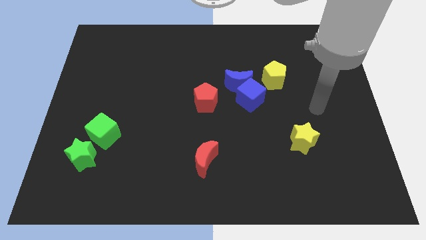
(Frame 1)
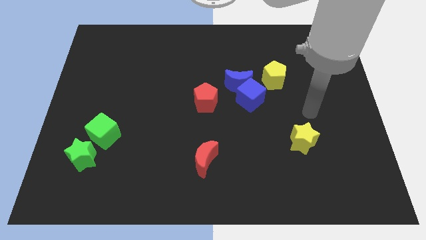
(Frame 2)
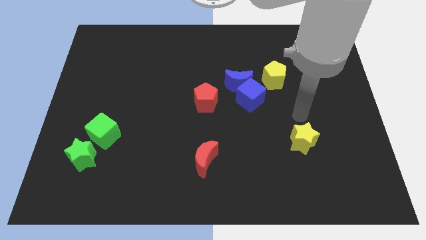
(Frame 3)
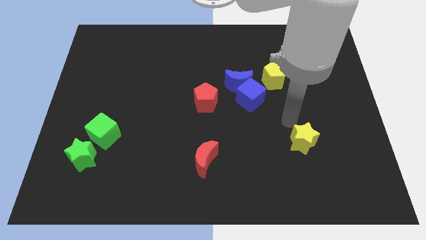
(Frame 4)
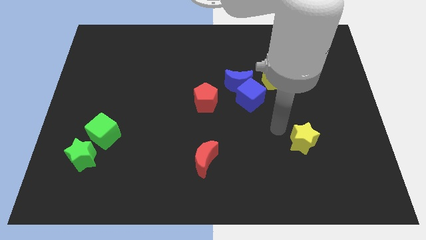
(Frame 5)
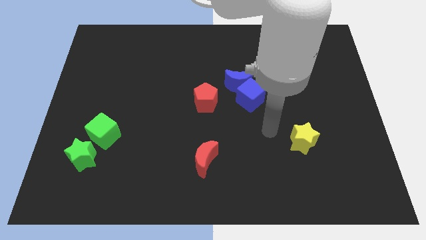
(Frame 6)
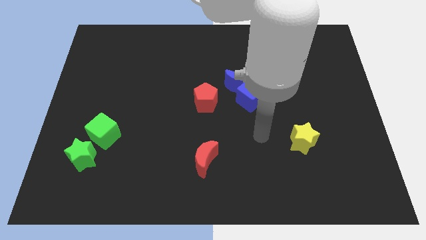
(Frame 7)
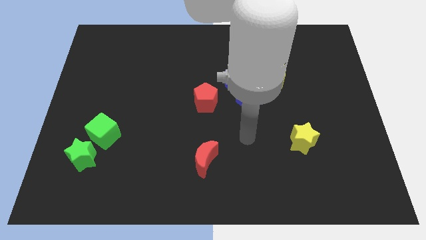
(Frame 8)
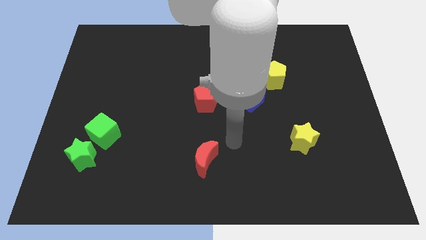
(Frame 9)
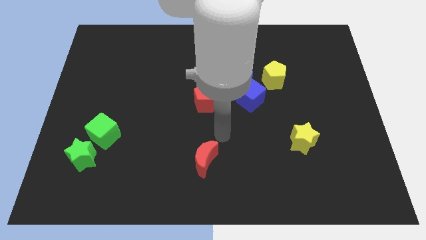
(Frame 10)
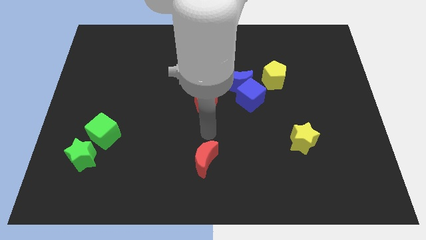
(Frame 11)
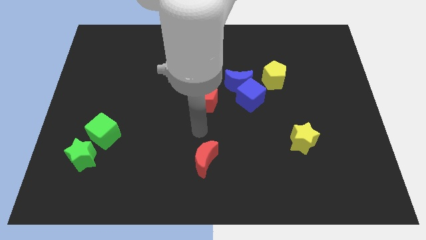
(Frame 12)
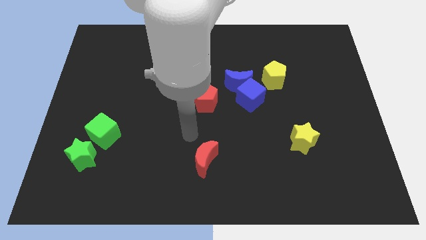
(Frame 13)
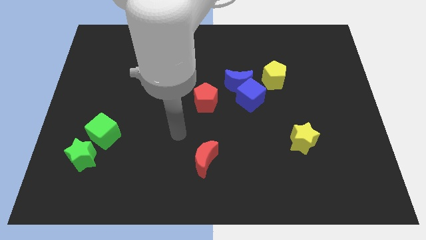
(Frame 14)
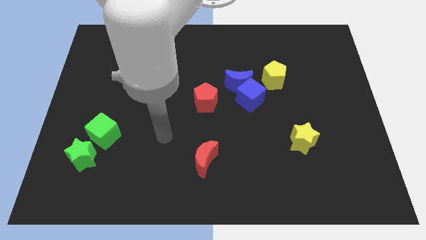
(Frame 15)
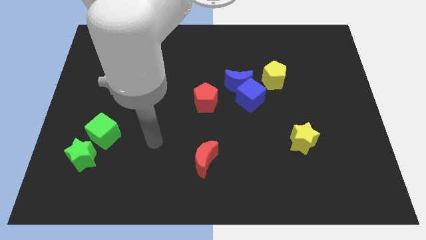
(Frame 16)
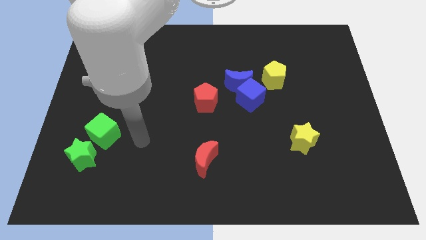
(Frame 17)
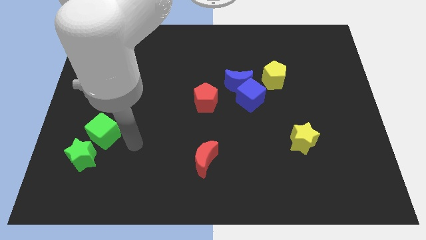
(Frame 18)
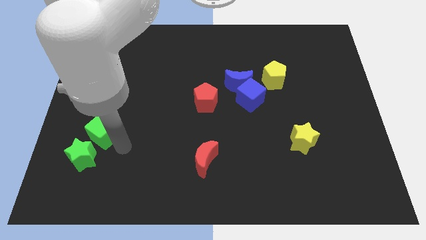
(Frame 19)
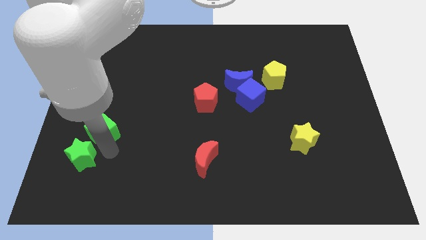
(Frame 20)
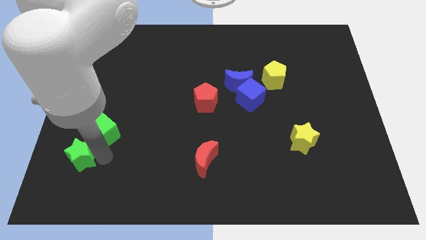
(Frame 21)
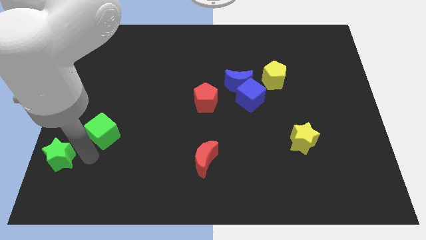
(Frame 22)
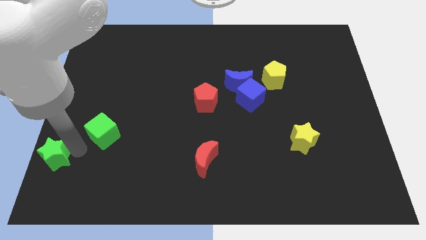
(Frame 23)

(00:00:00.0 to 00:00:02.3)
pull the green cube apart from the green star

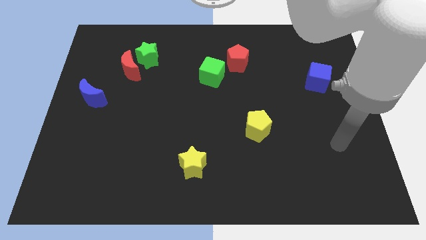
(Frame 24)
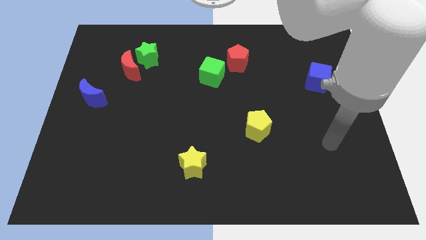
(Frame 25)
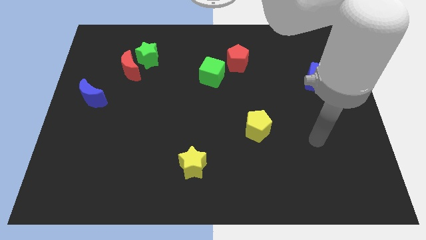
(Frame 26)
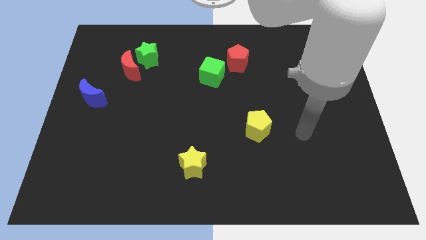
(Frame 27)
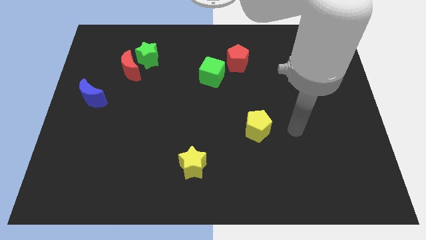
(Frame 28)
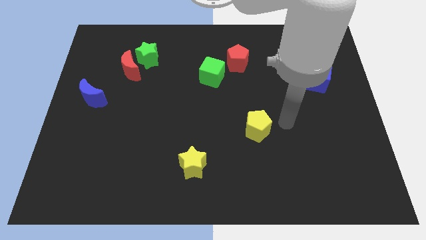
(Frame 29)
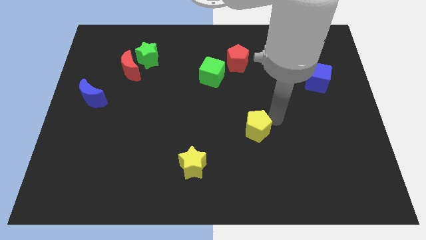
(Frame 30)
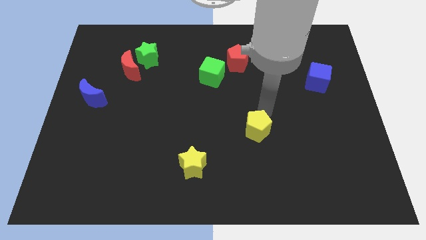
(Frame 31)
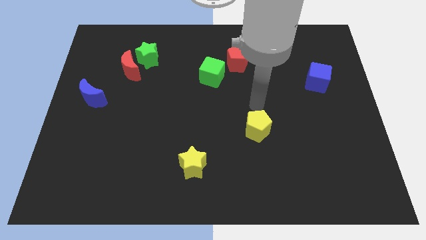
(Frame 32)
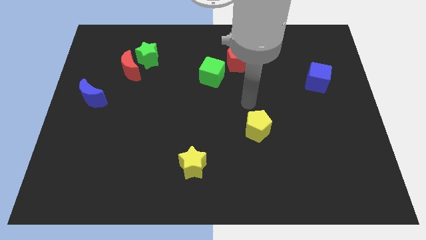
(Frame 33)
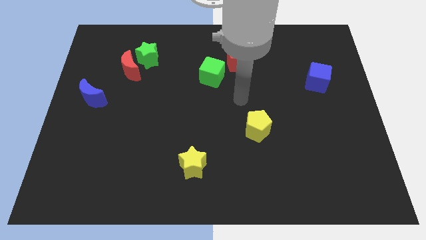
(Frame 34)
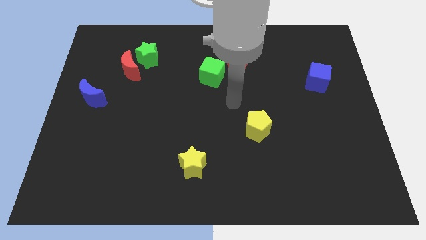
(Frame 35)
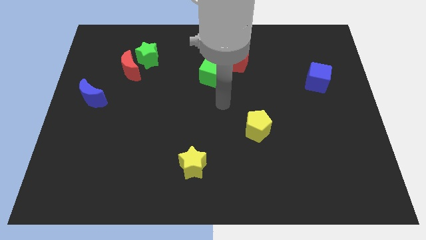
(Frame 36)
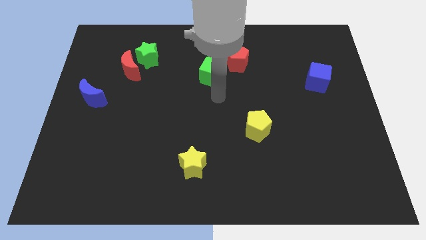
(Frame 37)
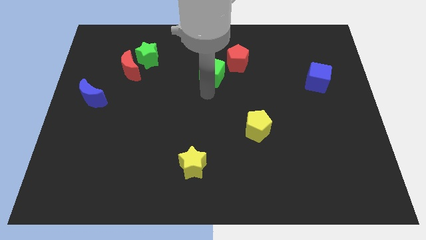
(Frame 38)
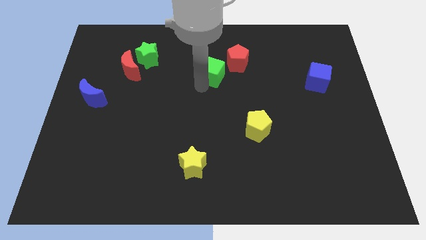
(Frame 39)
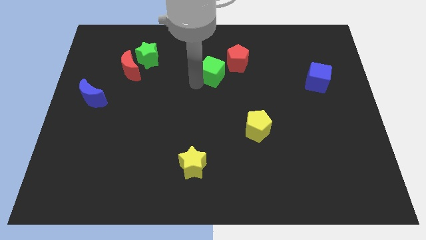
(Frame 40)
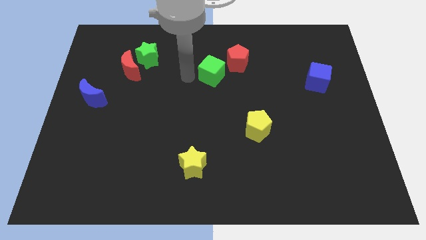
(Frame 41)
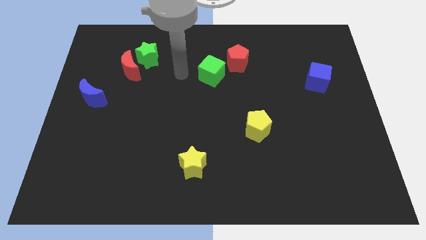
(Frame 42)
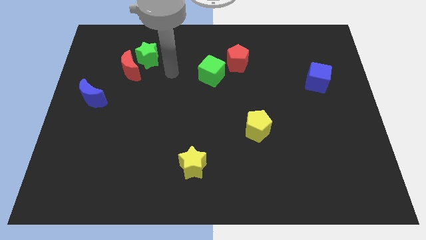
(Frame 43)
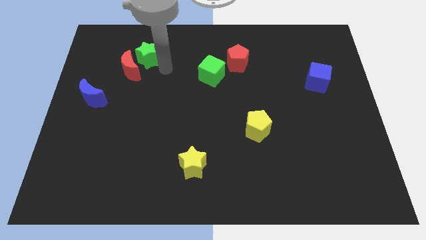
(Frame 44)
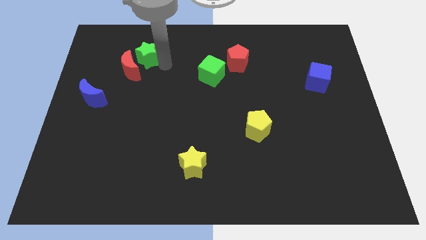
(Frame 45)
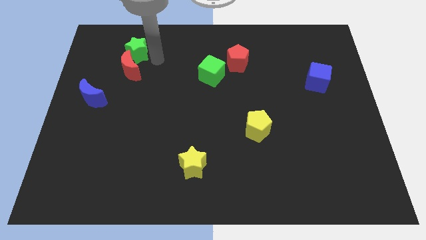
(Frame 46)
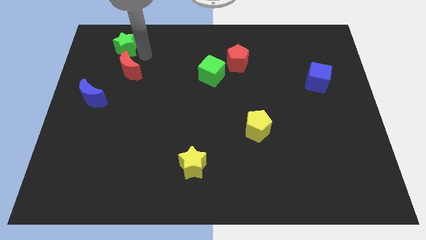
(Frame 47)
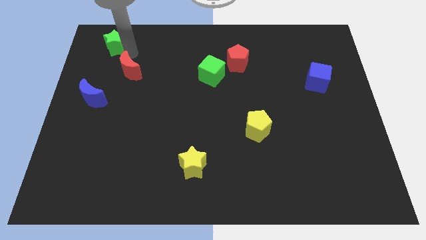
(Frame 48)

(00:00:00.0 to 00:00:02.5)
move the red moon away from the green star

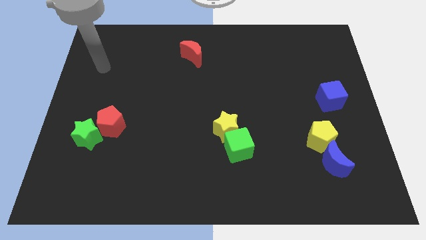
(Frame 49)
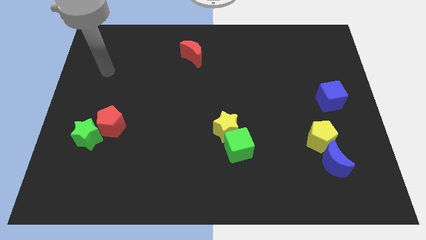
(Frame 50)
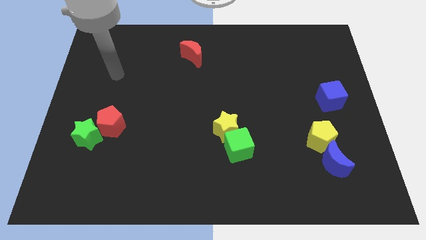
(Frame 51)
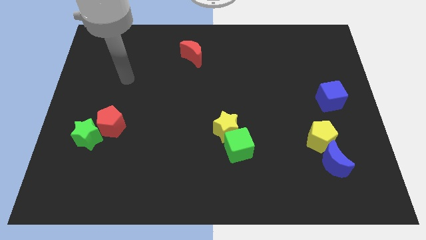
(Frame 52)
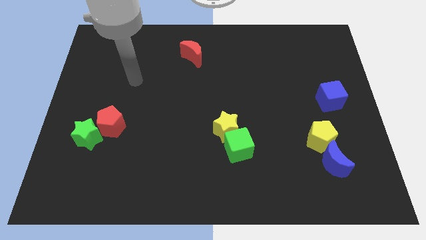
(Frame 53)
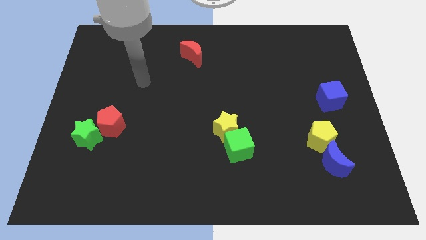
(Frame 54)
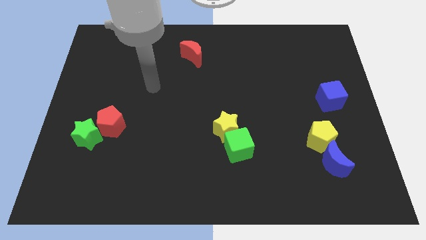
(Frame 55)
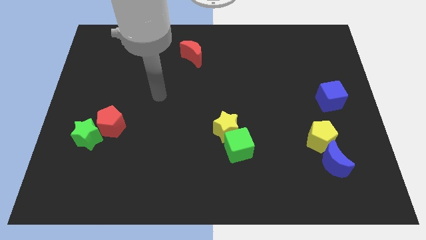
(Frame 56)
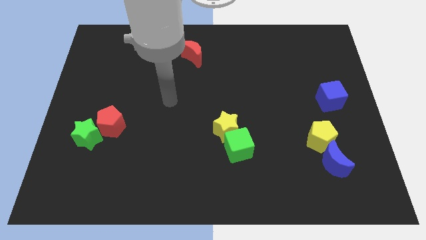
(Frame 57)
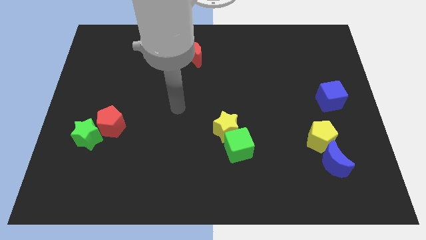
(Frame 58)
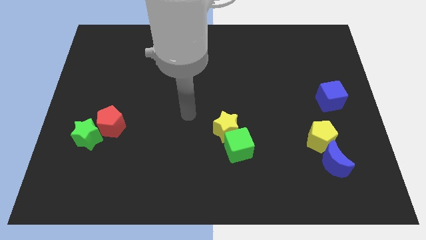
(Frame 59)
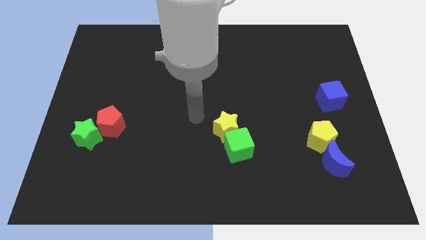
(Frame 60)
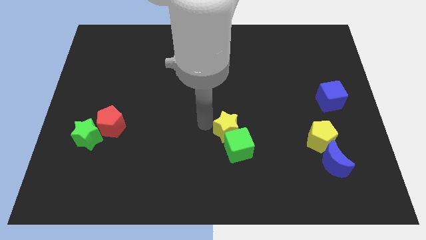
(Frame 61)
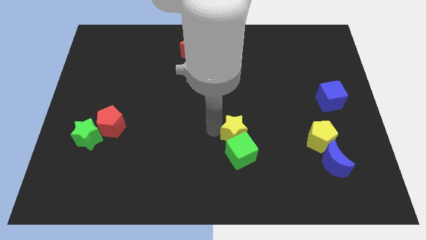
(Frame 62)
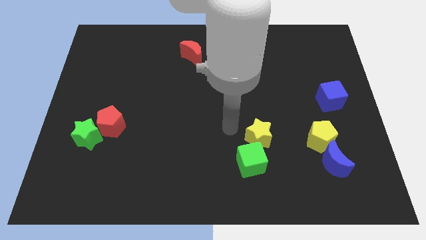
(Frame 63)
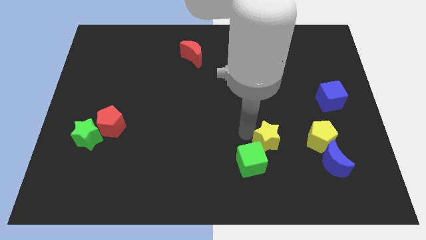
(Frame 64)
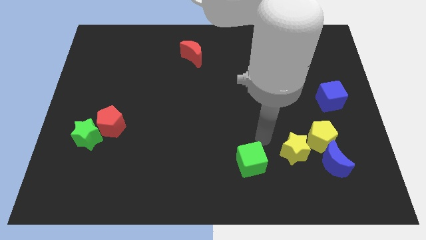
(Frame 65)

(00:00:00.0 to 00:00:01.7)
pull the green cube apart from the yellow star

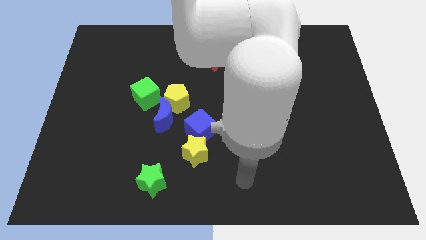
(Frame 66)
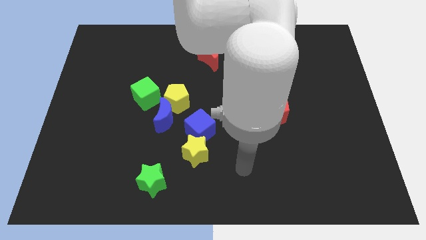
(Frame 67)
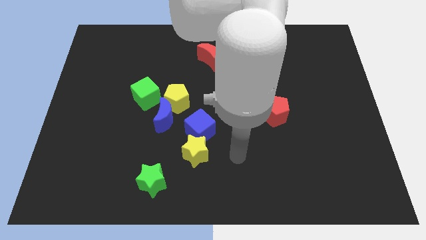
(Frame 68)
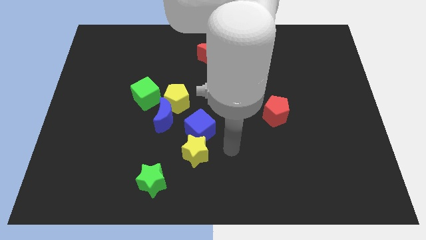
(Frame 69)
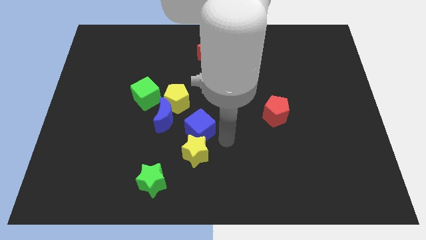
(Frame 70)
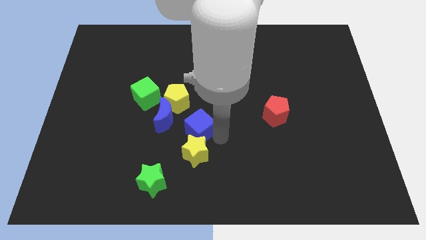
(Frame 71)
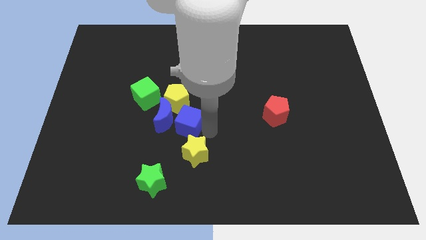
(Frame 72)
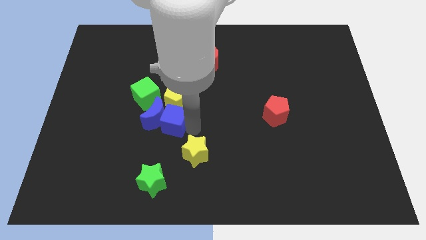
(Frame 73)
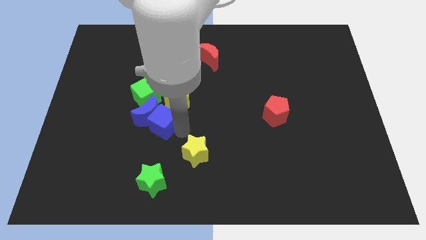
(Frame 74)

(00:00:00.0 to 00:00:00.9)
move the yellow star away from the blue cube

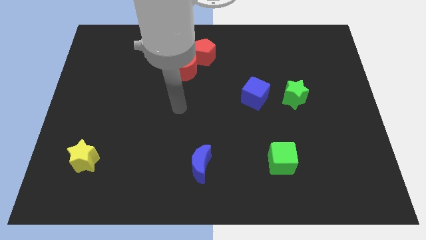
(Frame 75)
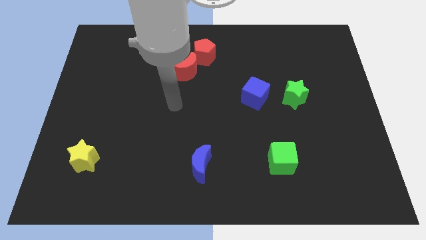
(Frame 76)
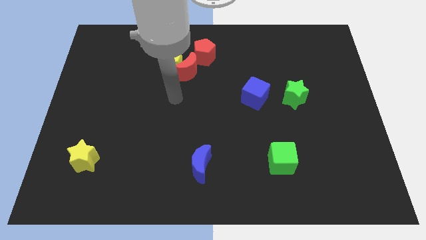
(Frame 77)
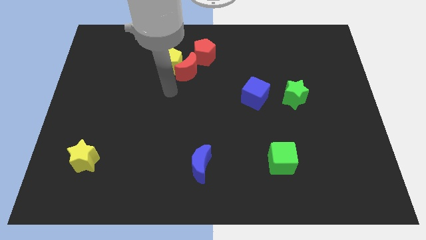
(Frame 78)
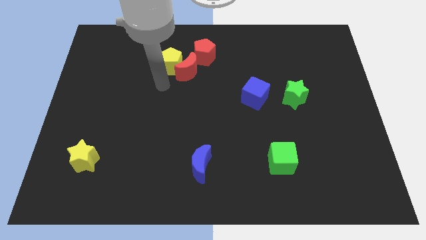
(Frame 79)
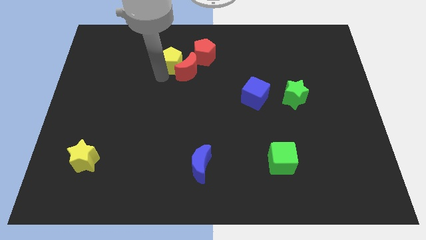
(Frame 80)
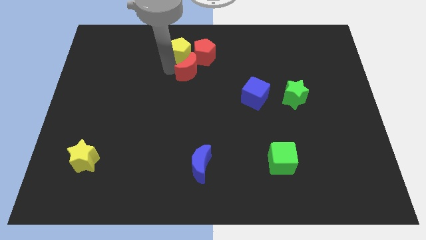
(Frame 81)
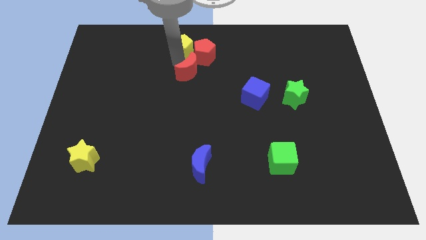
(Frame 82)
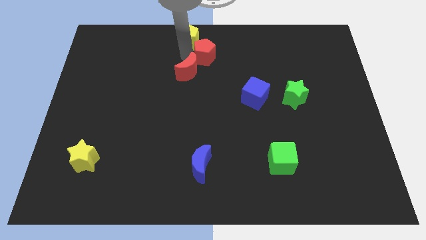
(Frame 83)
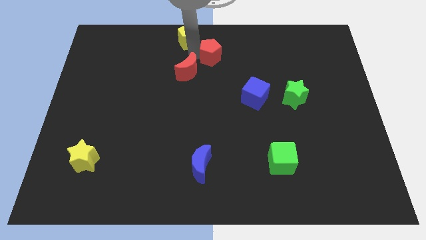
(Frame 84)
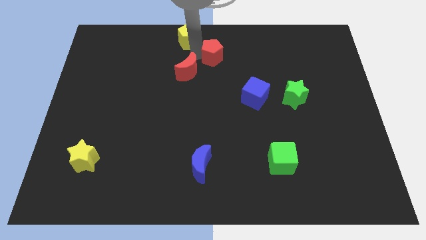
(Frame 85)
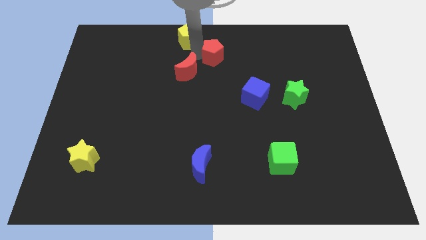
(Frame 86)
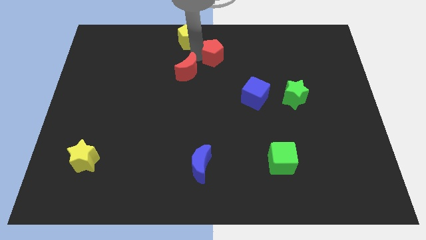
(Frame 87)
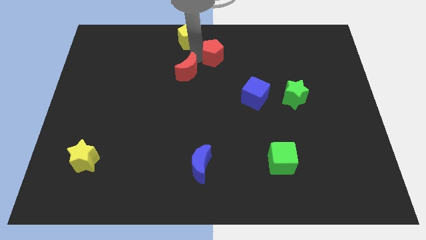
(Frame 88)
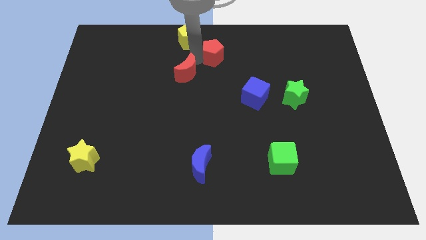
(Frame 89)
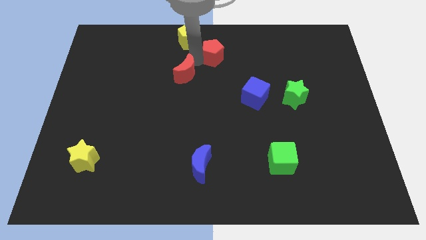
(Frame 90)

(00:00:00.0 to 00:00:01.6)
move the red moon away from the yellow pentagon and red pentagon

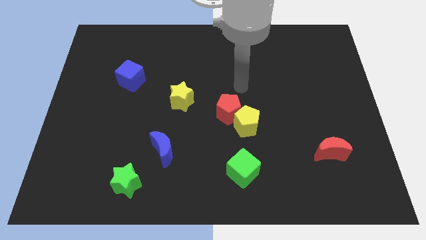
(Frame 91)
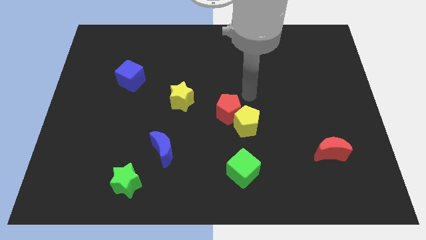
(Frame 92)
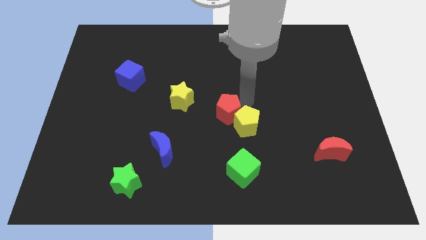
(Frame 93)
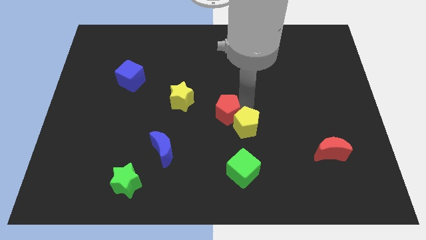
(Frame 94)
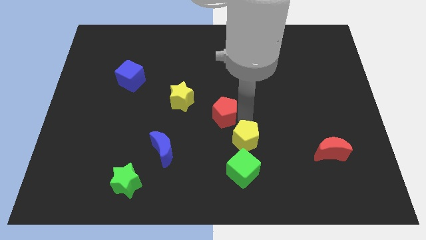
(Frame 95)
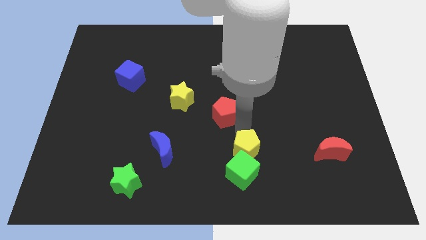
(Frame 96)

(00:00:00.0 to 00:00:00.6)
separate the red pentagon from the yellow pentagon
